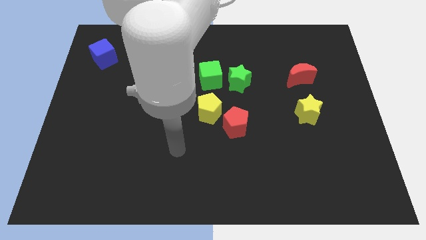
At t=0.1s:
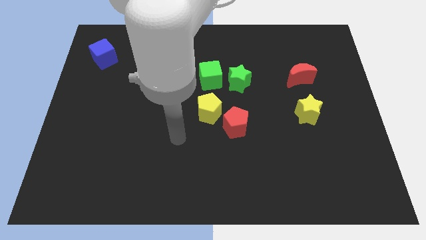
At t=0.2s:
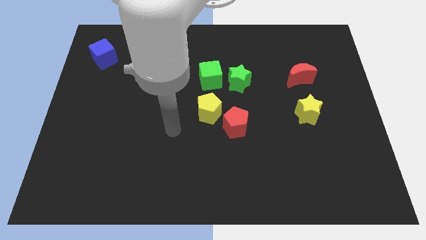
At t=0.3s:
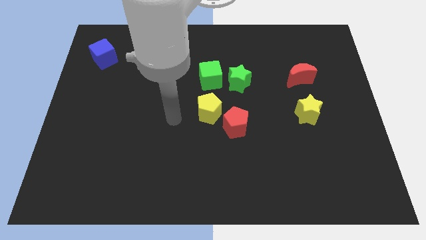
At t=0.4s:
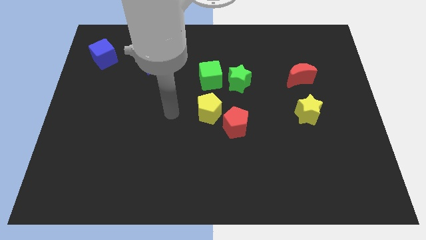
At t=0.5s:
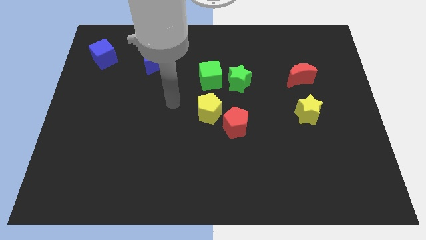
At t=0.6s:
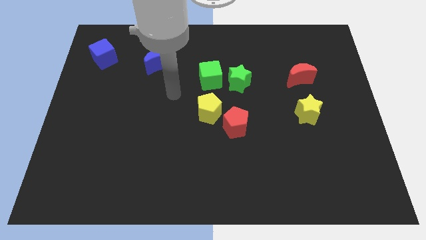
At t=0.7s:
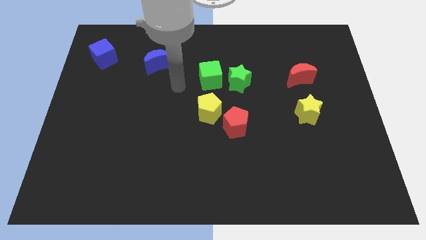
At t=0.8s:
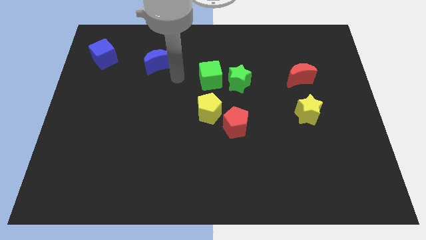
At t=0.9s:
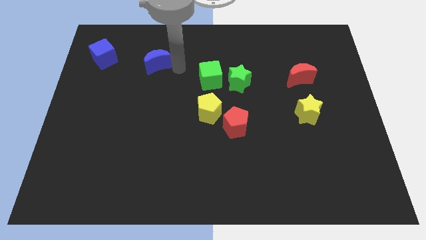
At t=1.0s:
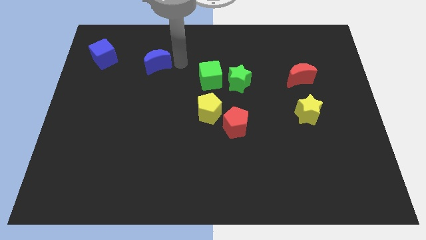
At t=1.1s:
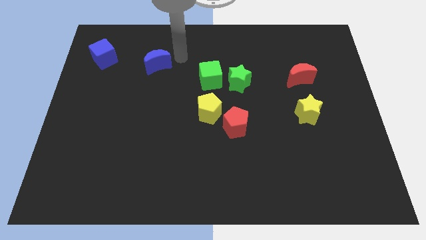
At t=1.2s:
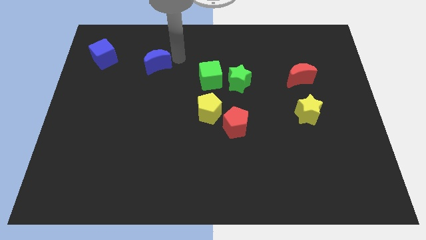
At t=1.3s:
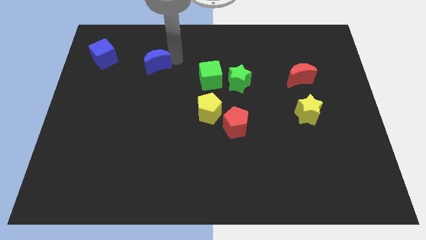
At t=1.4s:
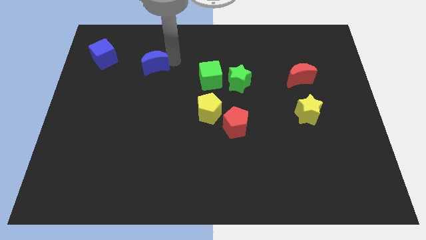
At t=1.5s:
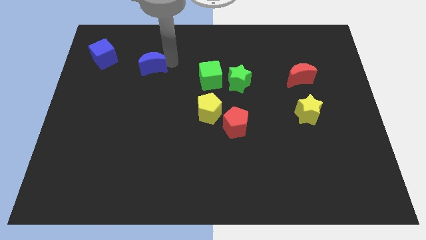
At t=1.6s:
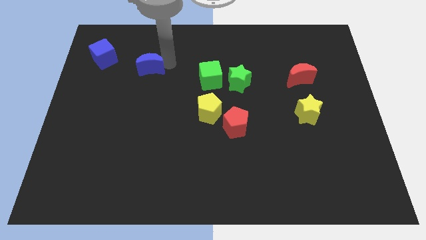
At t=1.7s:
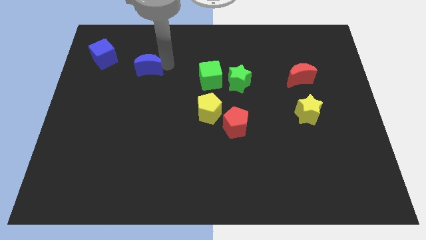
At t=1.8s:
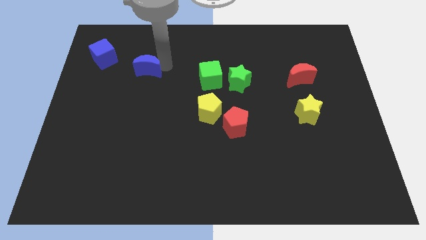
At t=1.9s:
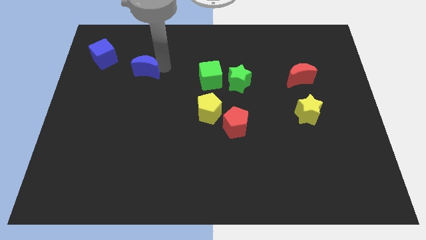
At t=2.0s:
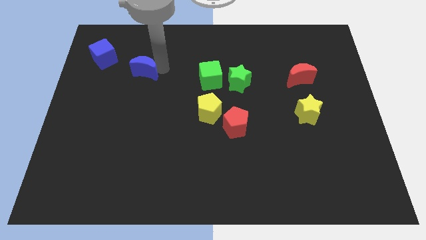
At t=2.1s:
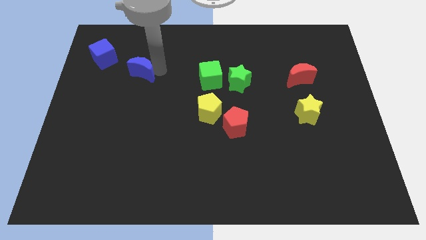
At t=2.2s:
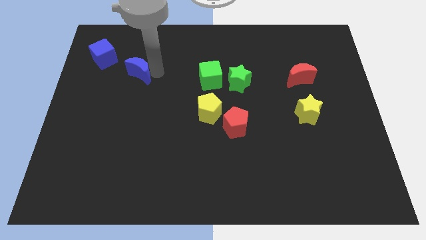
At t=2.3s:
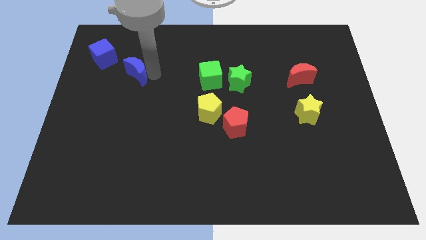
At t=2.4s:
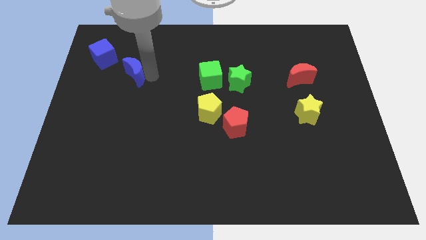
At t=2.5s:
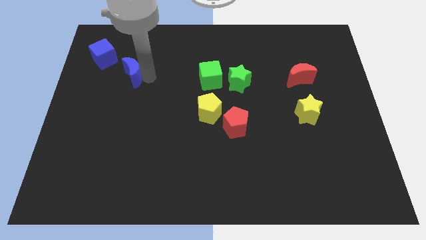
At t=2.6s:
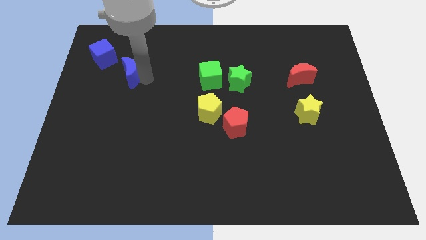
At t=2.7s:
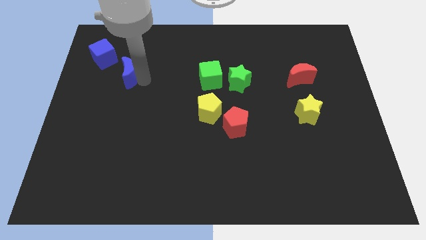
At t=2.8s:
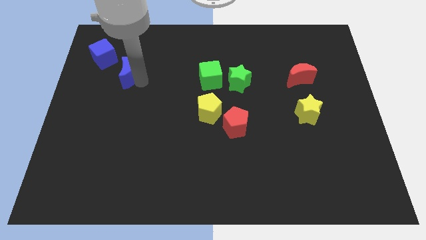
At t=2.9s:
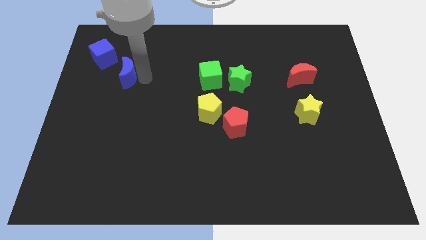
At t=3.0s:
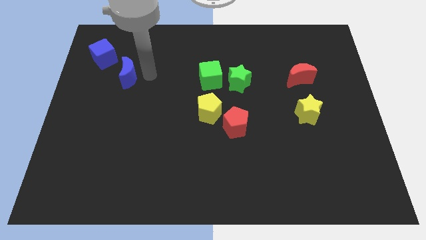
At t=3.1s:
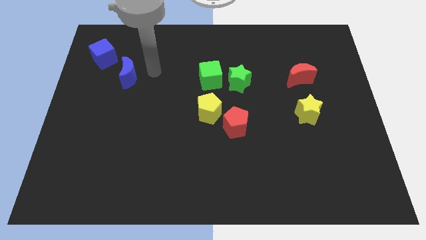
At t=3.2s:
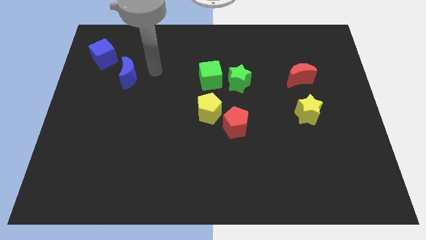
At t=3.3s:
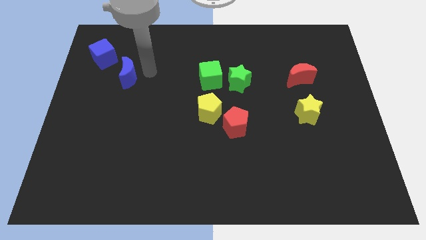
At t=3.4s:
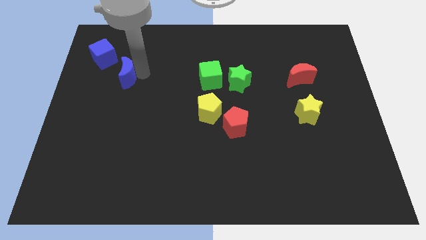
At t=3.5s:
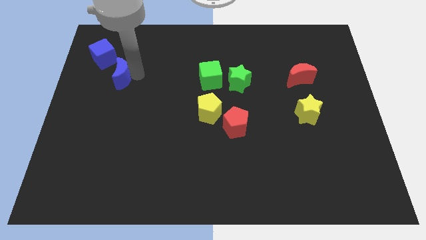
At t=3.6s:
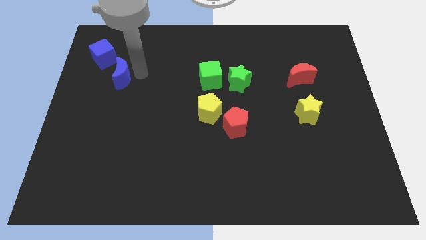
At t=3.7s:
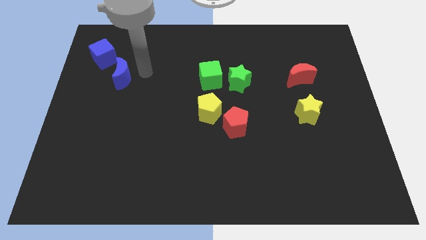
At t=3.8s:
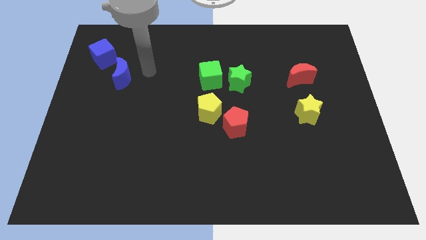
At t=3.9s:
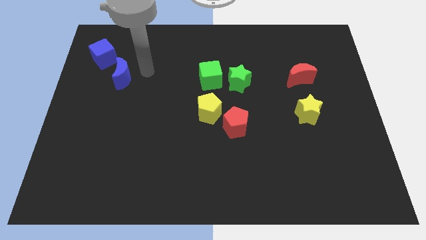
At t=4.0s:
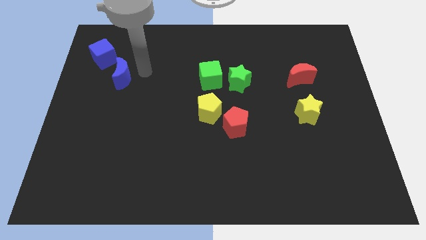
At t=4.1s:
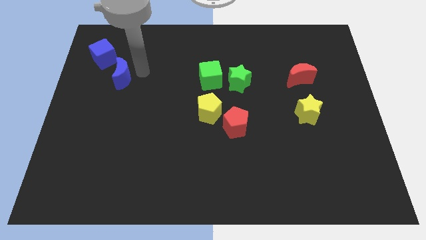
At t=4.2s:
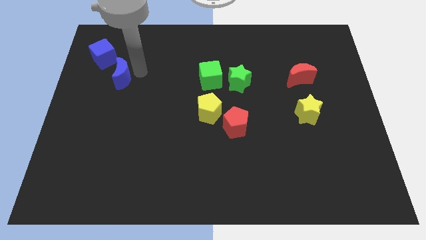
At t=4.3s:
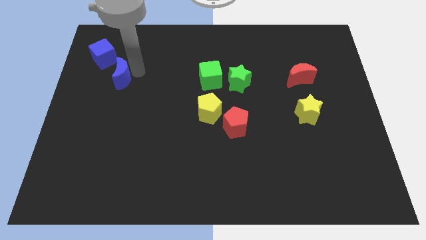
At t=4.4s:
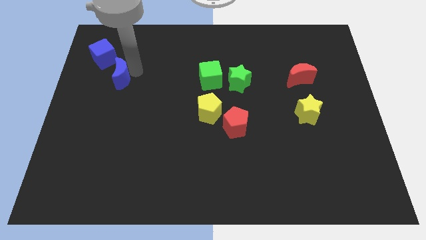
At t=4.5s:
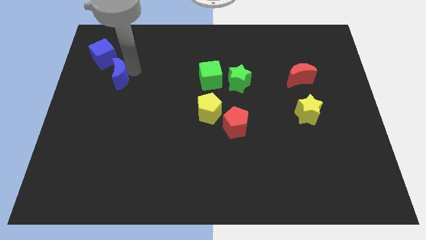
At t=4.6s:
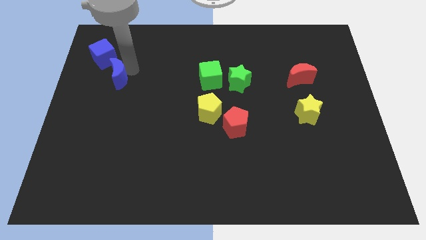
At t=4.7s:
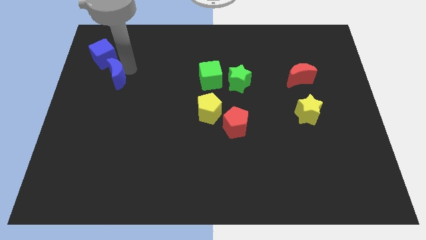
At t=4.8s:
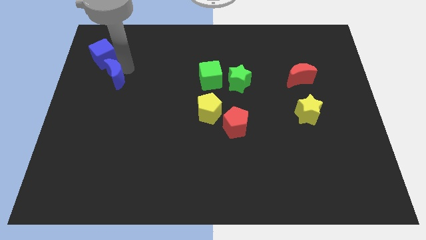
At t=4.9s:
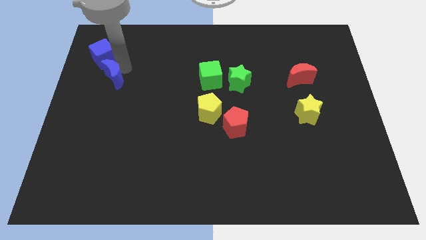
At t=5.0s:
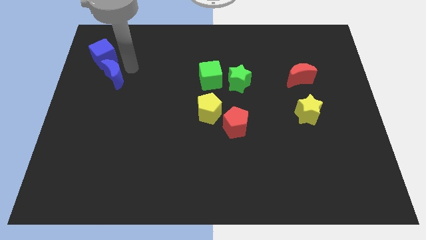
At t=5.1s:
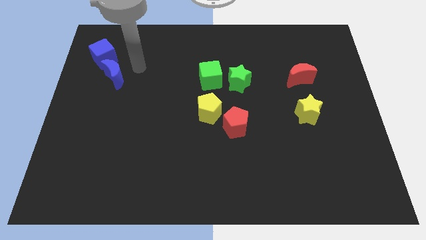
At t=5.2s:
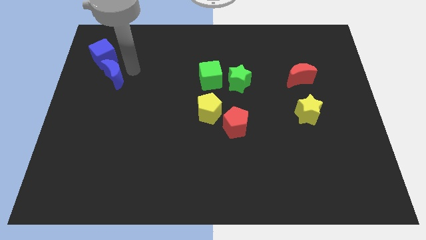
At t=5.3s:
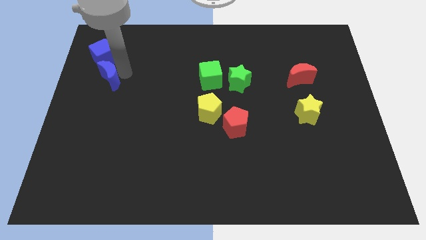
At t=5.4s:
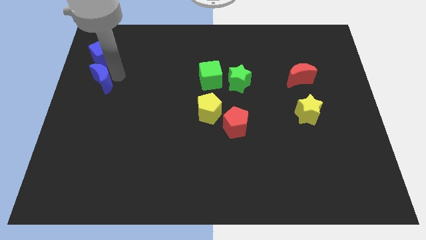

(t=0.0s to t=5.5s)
push the blue moon to the center left

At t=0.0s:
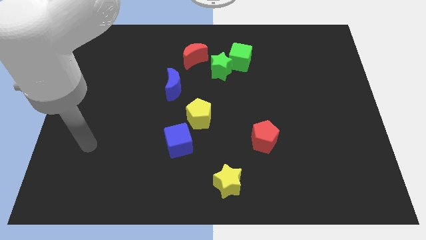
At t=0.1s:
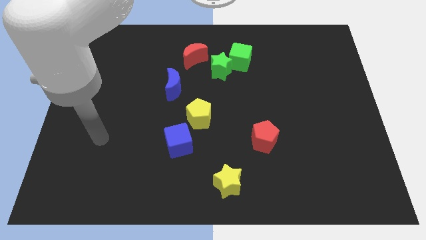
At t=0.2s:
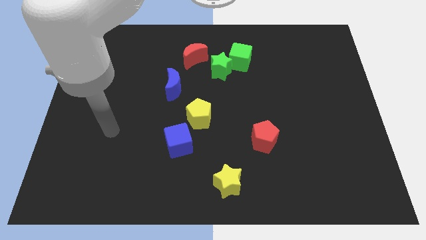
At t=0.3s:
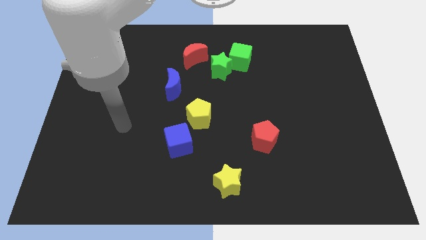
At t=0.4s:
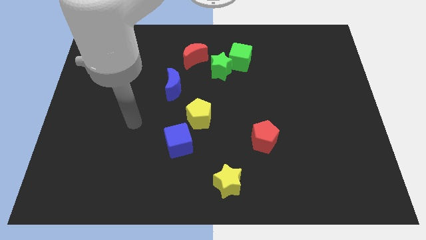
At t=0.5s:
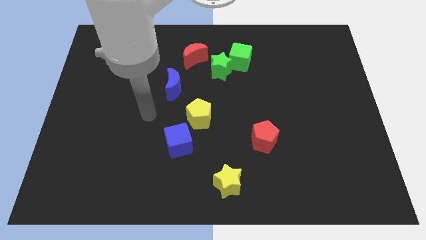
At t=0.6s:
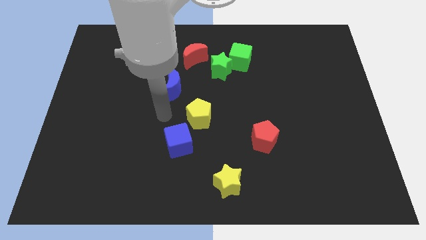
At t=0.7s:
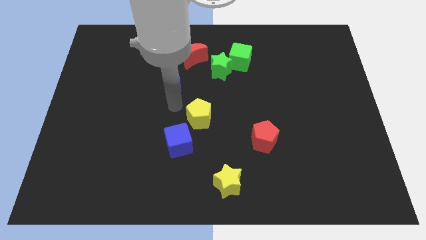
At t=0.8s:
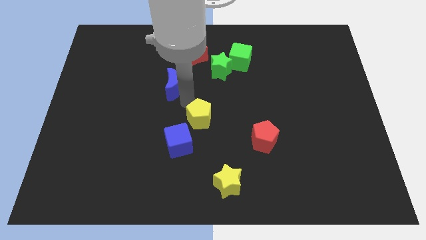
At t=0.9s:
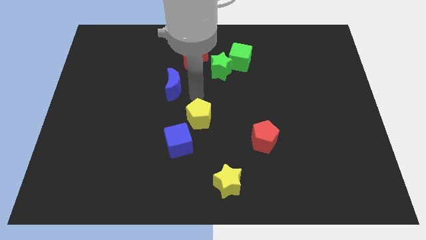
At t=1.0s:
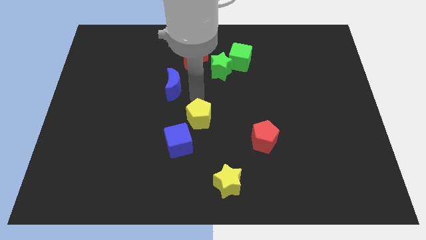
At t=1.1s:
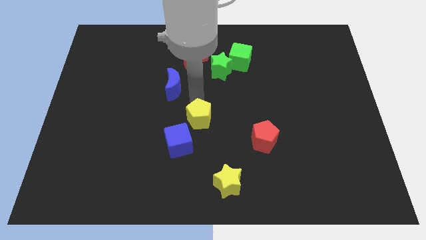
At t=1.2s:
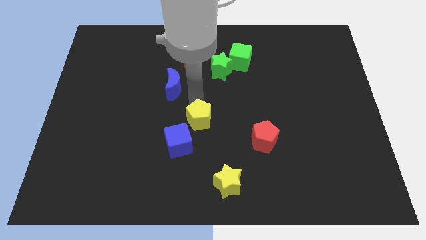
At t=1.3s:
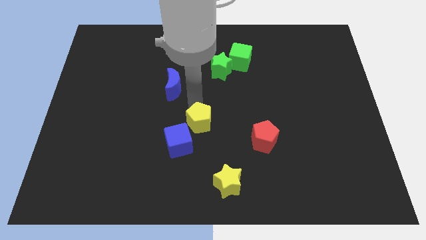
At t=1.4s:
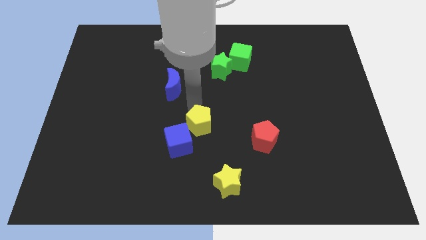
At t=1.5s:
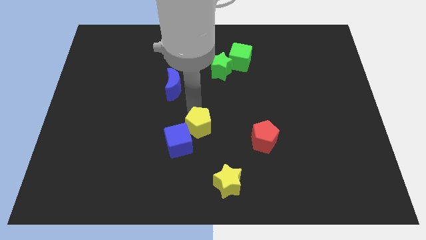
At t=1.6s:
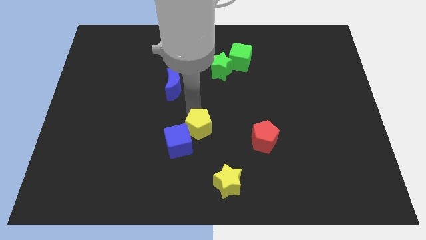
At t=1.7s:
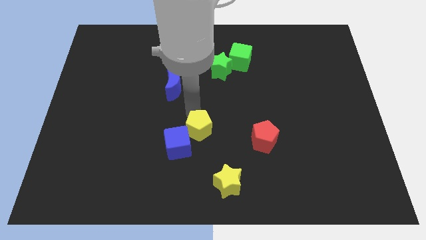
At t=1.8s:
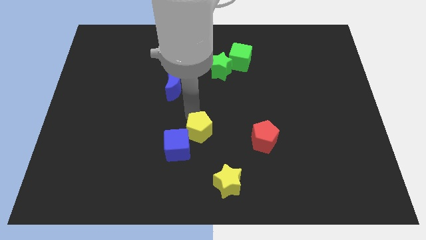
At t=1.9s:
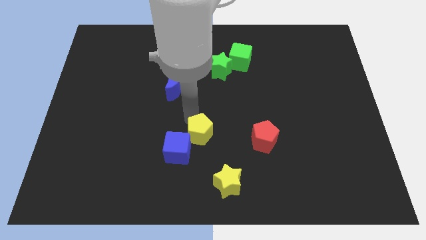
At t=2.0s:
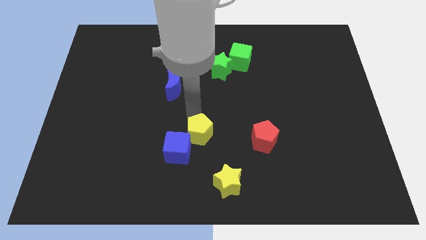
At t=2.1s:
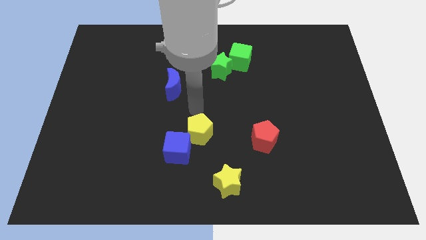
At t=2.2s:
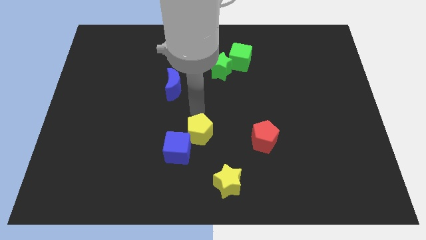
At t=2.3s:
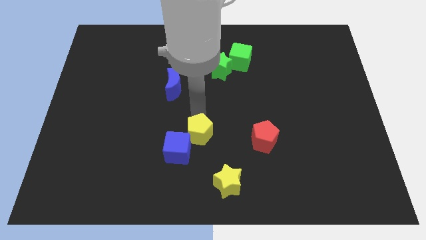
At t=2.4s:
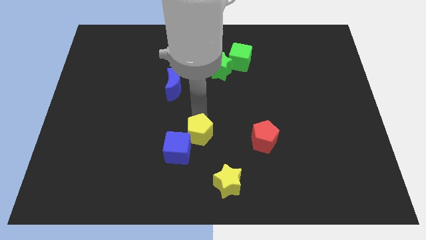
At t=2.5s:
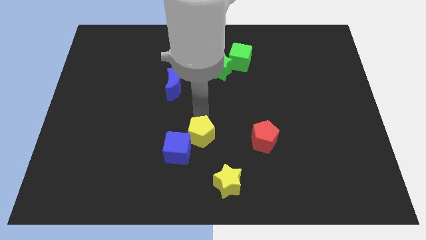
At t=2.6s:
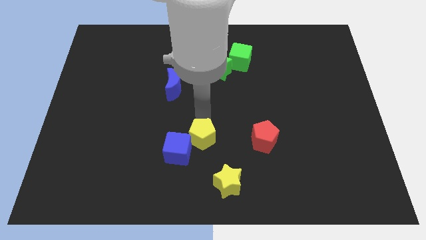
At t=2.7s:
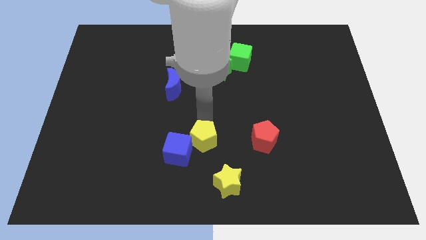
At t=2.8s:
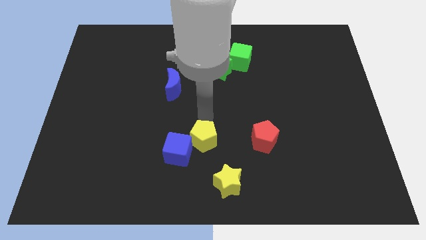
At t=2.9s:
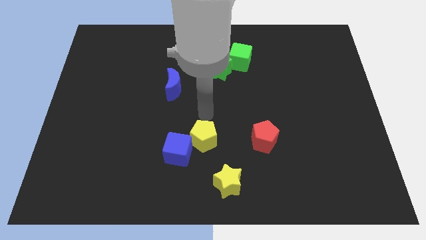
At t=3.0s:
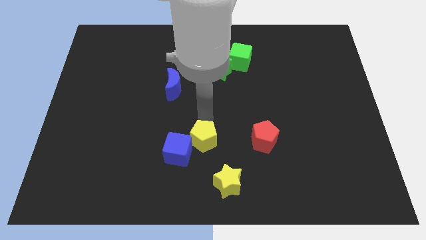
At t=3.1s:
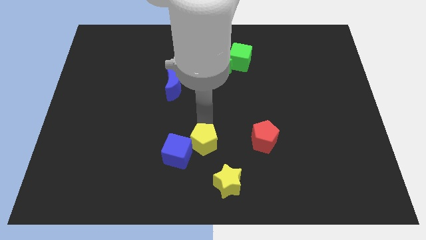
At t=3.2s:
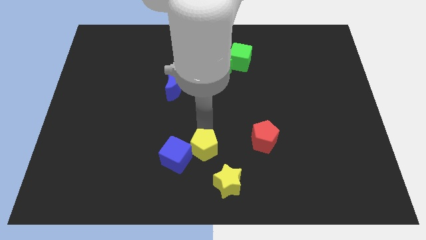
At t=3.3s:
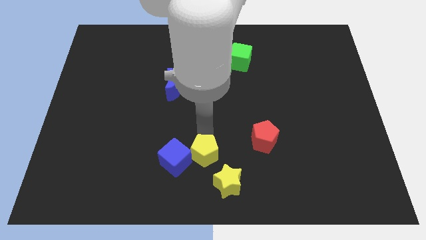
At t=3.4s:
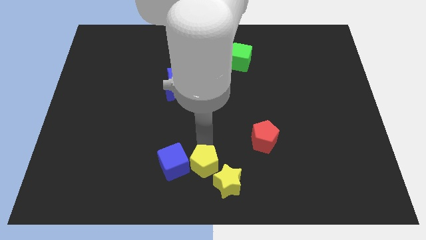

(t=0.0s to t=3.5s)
slide the yellow pentagon to the bottom
